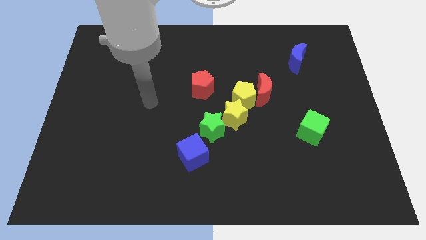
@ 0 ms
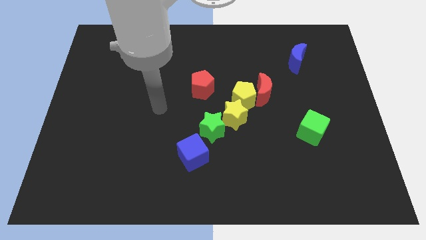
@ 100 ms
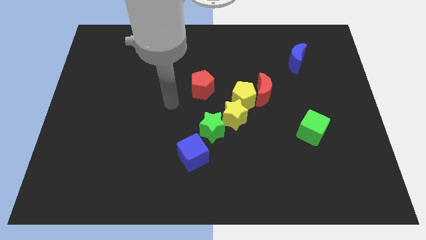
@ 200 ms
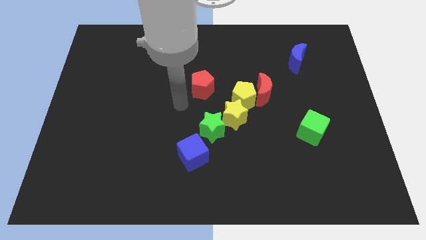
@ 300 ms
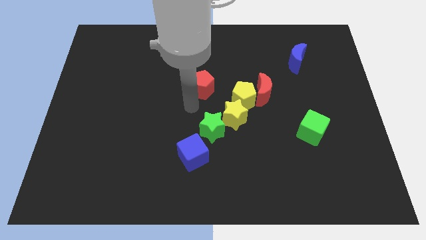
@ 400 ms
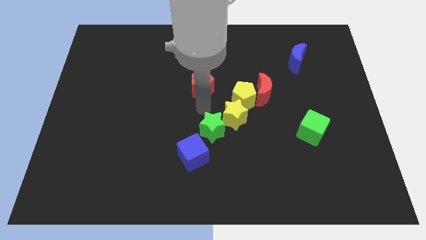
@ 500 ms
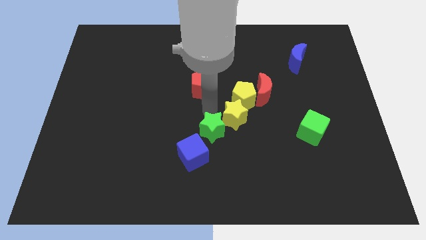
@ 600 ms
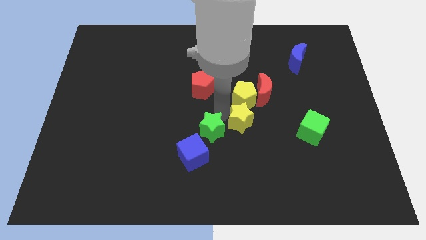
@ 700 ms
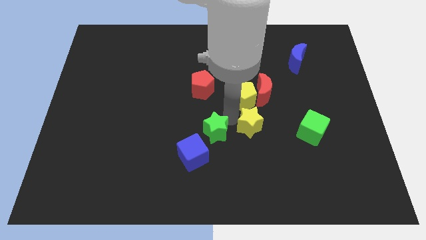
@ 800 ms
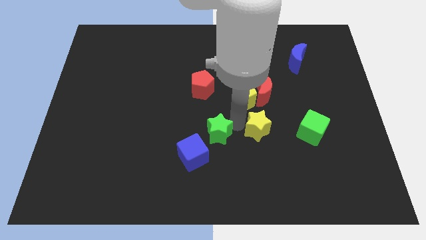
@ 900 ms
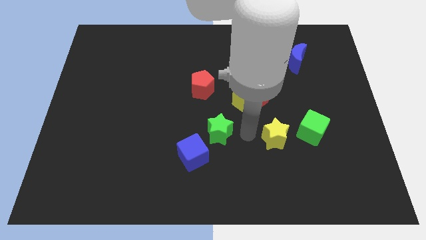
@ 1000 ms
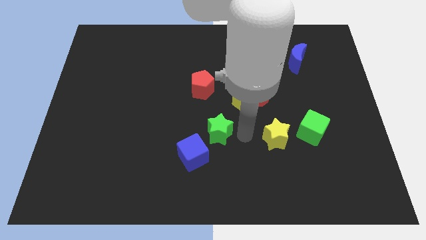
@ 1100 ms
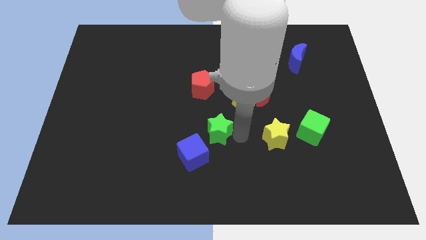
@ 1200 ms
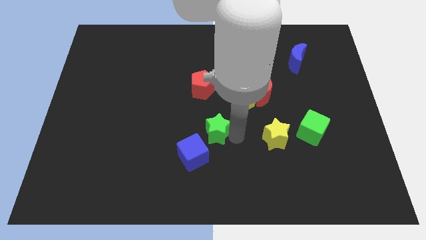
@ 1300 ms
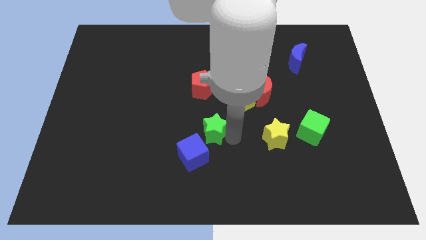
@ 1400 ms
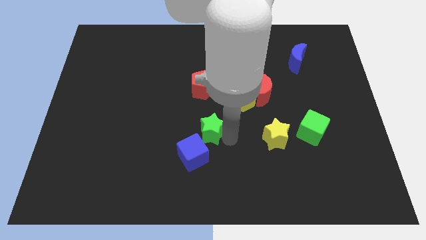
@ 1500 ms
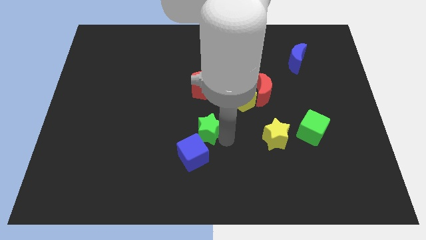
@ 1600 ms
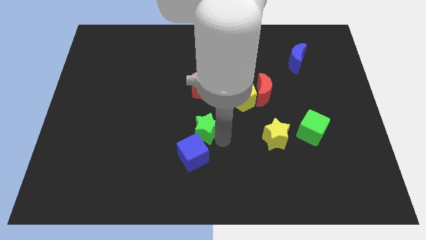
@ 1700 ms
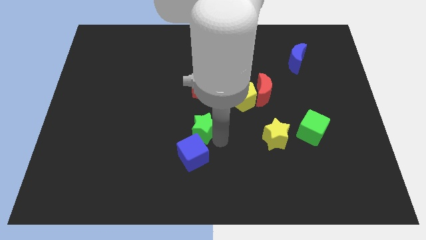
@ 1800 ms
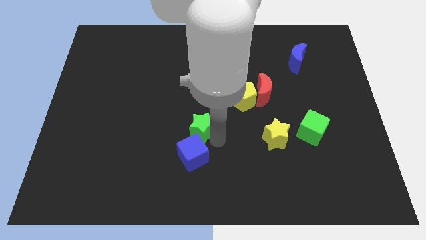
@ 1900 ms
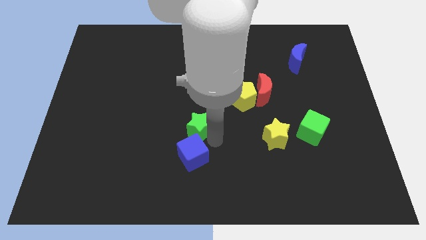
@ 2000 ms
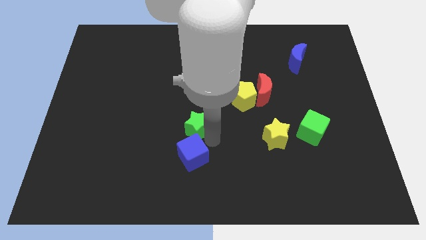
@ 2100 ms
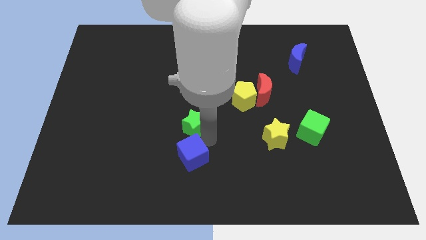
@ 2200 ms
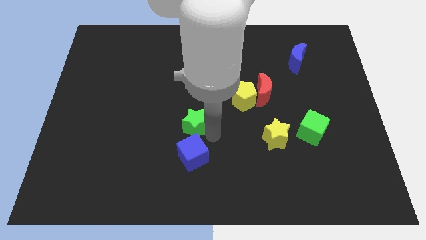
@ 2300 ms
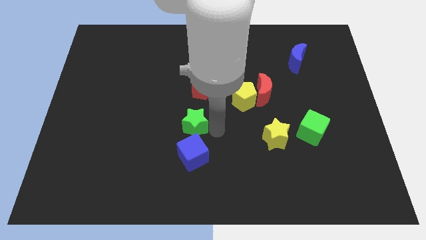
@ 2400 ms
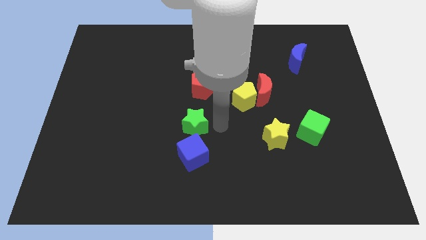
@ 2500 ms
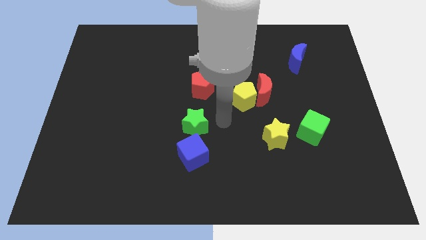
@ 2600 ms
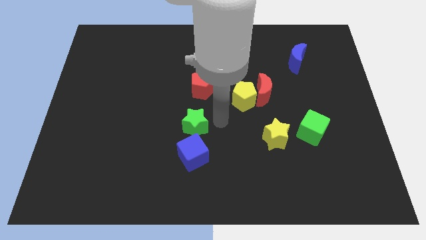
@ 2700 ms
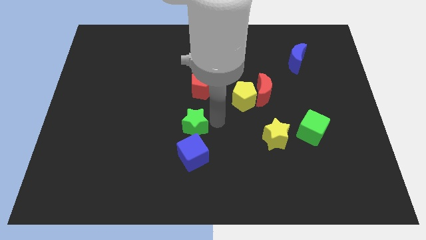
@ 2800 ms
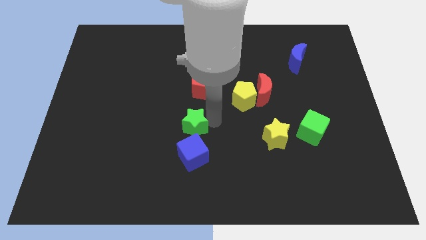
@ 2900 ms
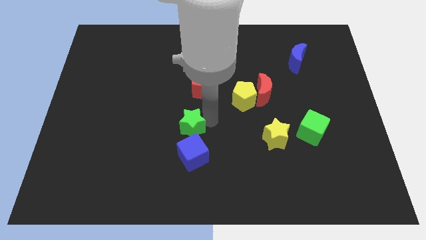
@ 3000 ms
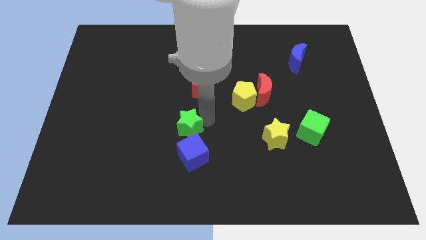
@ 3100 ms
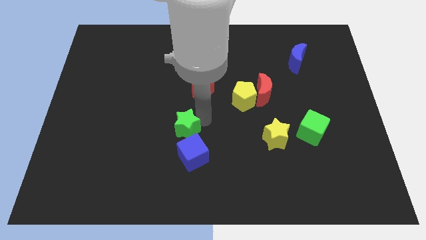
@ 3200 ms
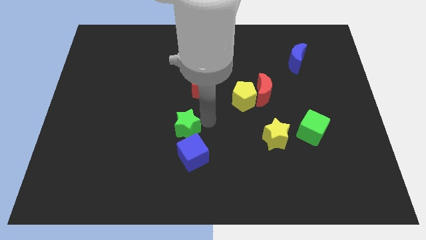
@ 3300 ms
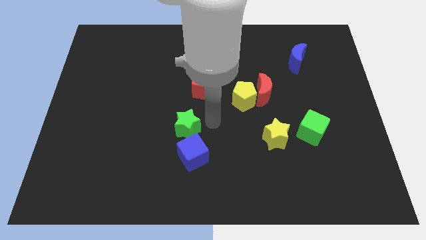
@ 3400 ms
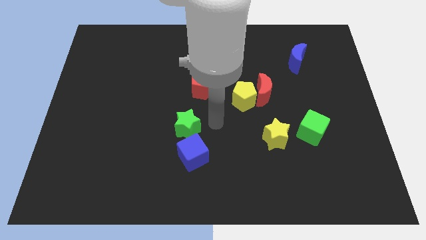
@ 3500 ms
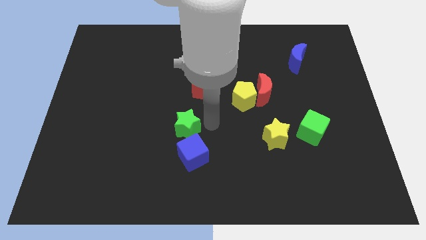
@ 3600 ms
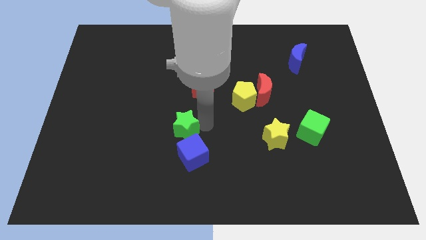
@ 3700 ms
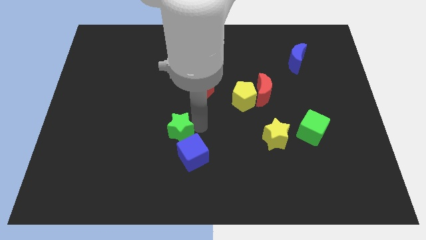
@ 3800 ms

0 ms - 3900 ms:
slightly move the green star left

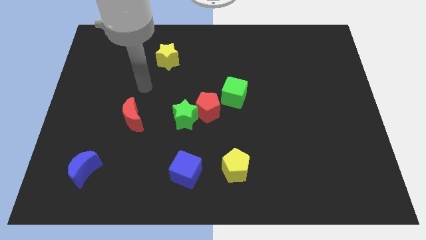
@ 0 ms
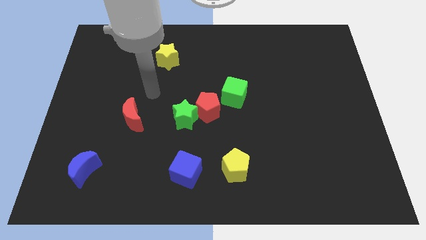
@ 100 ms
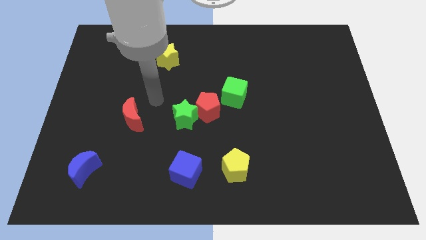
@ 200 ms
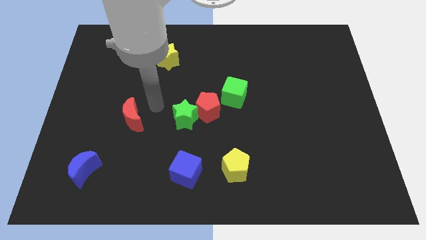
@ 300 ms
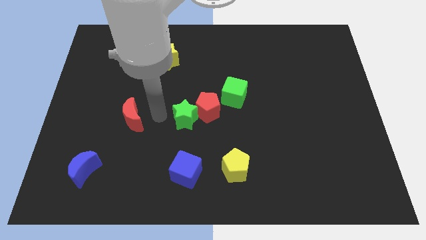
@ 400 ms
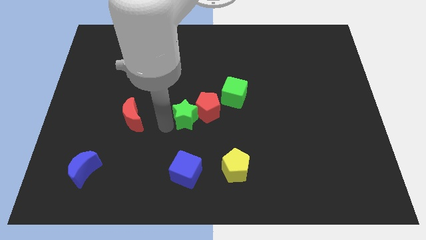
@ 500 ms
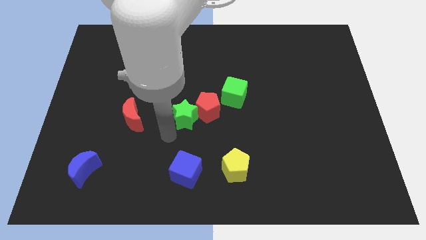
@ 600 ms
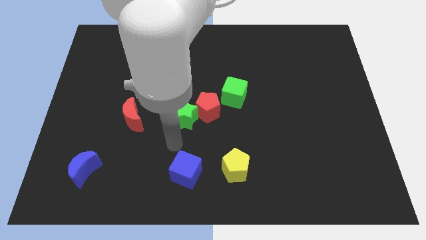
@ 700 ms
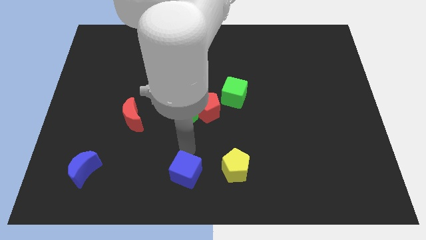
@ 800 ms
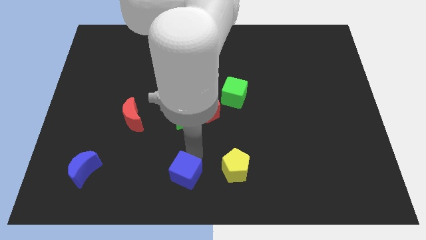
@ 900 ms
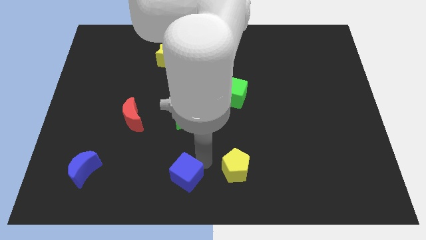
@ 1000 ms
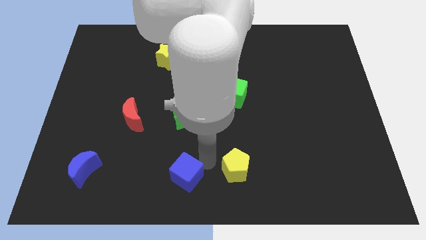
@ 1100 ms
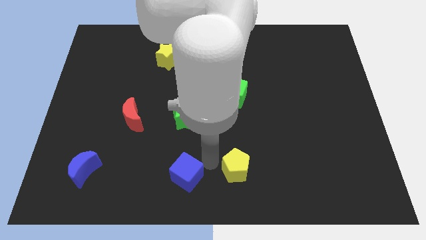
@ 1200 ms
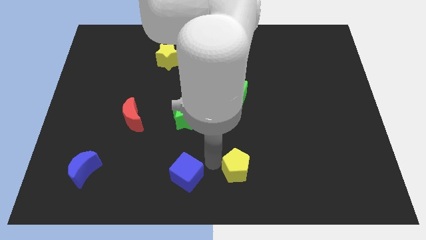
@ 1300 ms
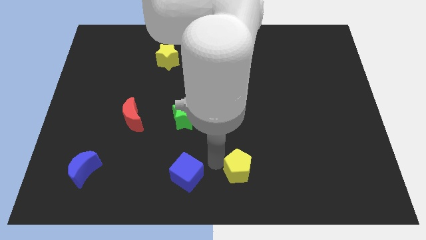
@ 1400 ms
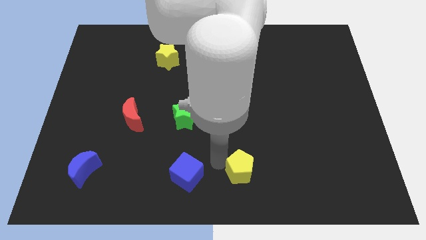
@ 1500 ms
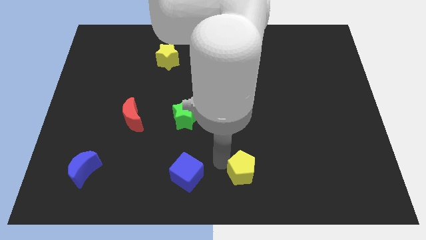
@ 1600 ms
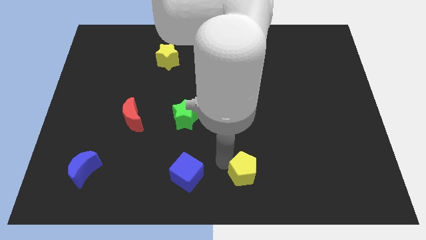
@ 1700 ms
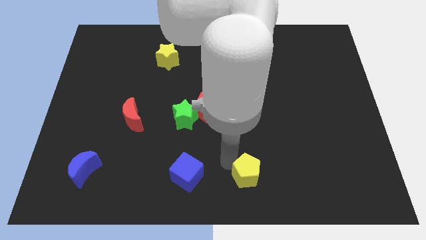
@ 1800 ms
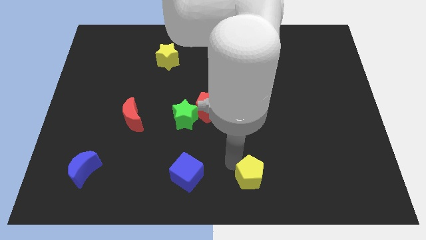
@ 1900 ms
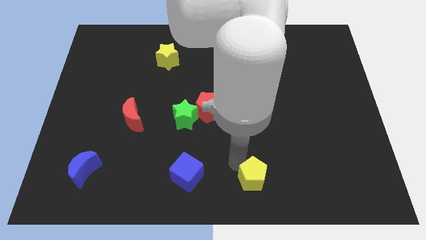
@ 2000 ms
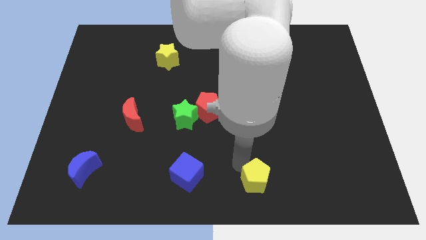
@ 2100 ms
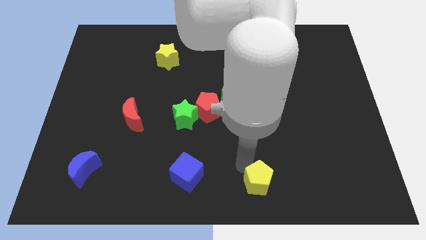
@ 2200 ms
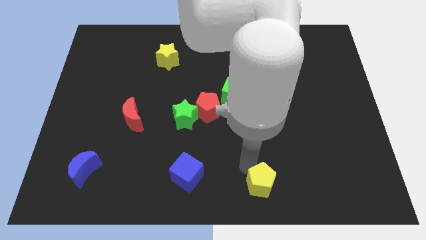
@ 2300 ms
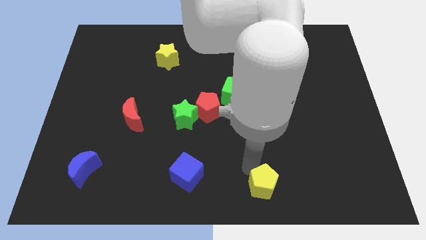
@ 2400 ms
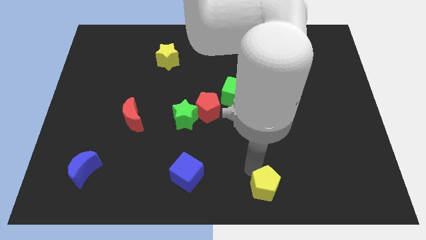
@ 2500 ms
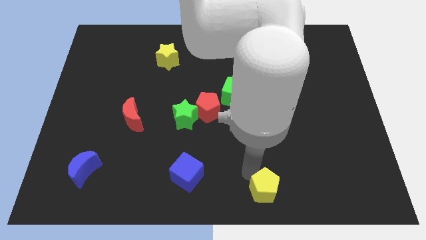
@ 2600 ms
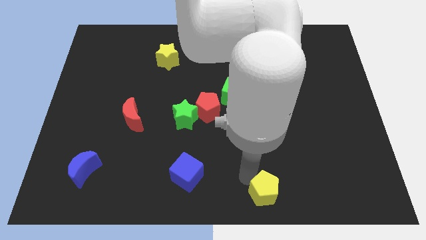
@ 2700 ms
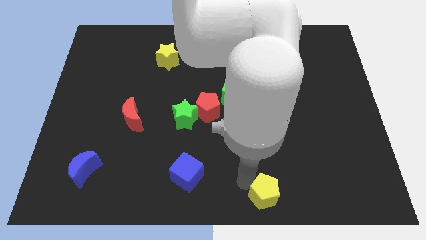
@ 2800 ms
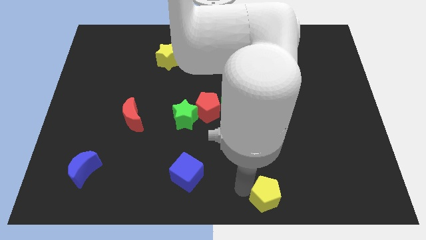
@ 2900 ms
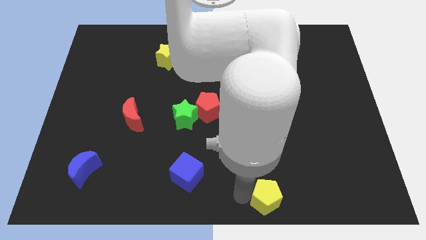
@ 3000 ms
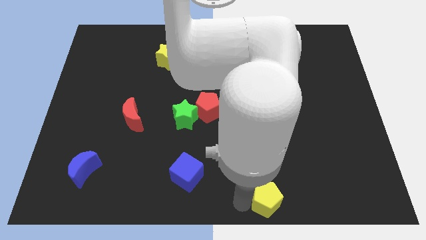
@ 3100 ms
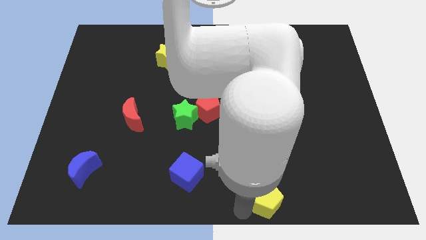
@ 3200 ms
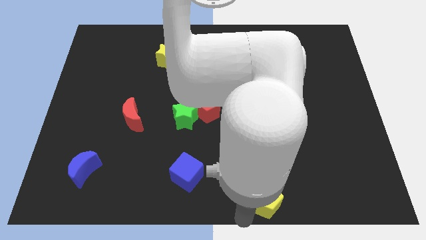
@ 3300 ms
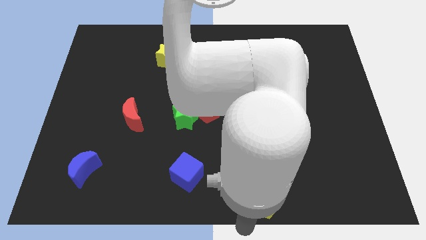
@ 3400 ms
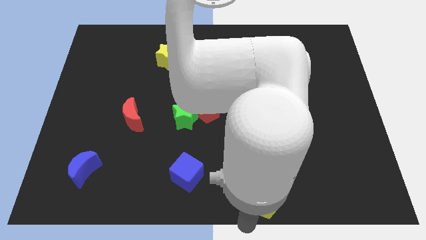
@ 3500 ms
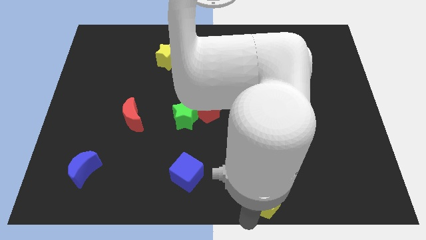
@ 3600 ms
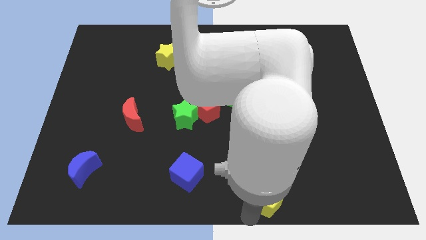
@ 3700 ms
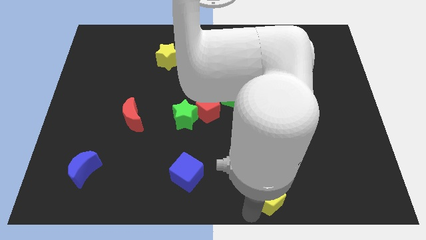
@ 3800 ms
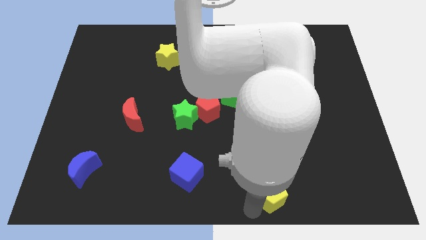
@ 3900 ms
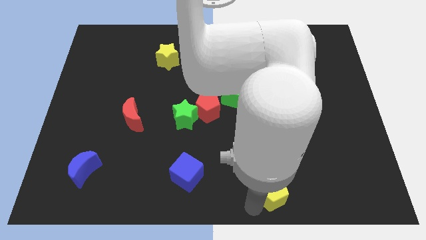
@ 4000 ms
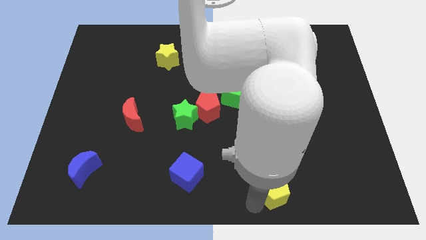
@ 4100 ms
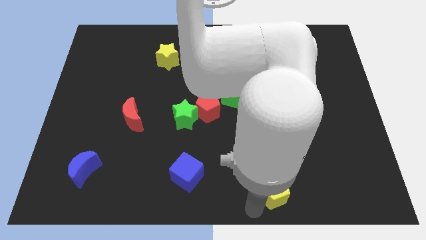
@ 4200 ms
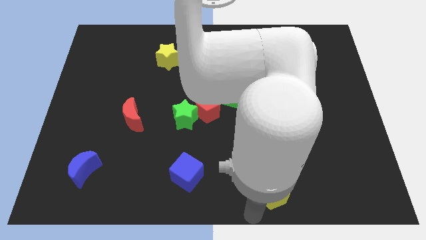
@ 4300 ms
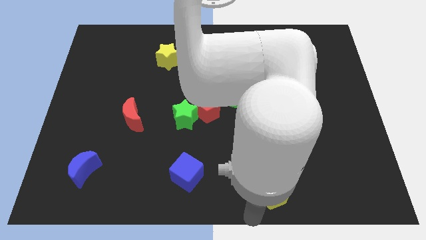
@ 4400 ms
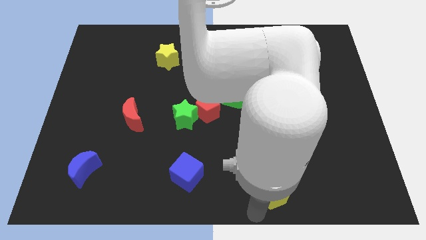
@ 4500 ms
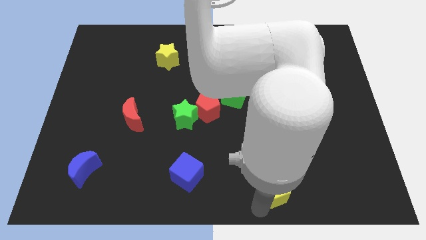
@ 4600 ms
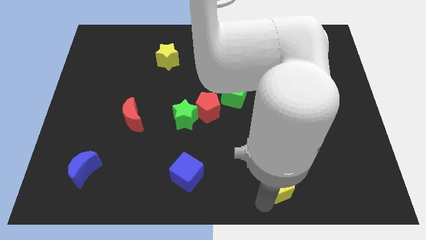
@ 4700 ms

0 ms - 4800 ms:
slightly slide the yellow pentagon right
